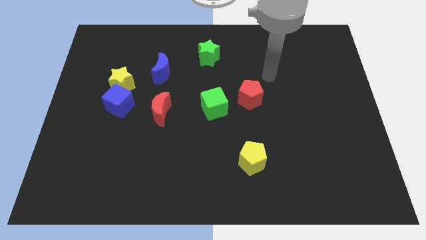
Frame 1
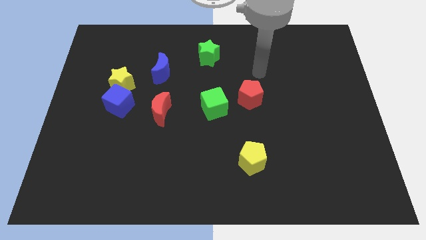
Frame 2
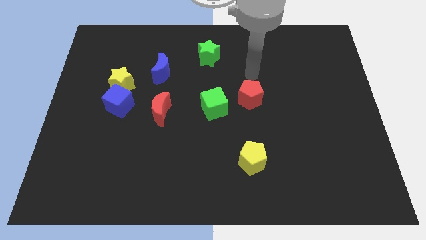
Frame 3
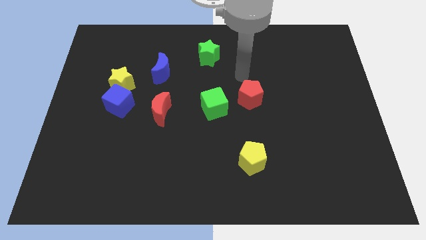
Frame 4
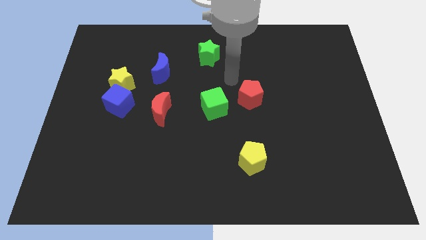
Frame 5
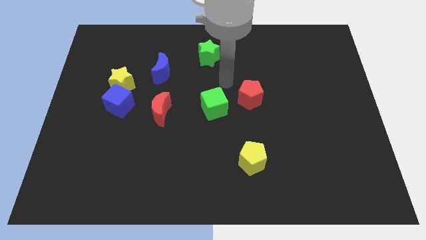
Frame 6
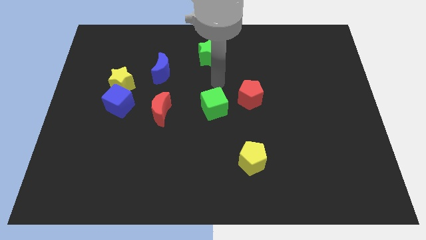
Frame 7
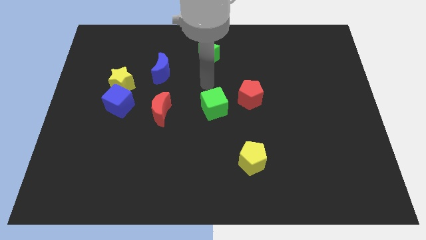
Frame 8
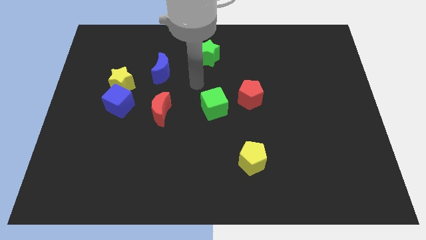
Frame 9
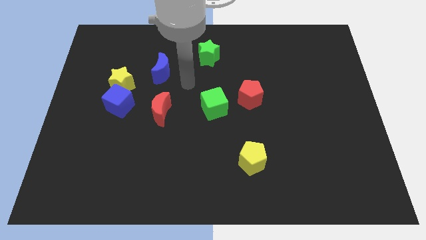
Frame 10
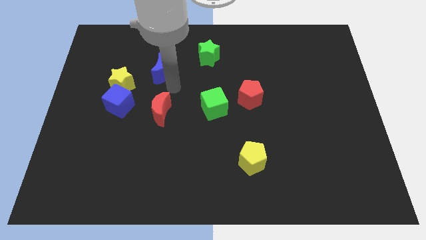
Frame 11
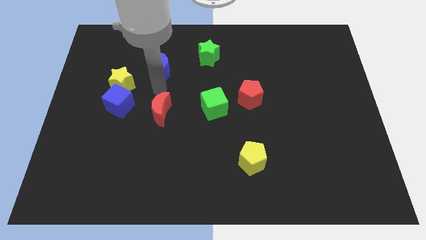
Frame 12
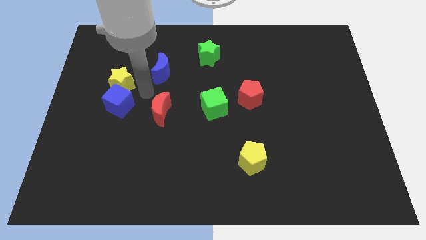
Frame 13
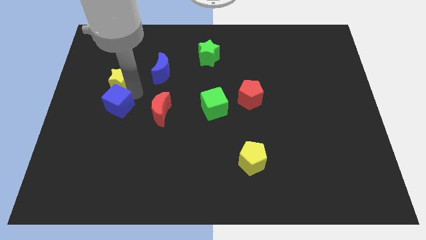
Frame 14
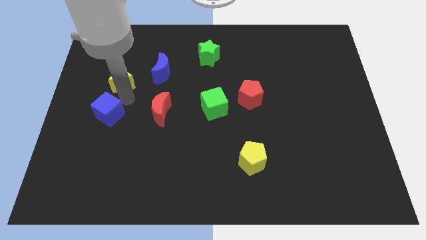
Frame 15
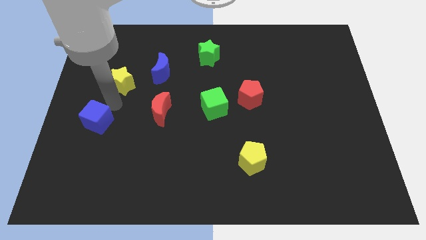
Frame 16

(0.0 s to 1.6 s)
move the yellow star away from the blue cube

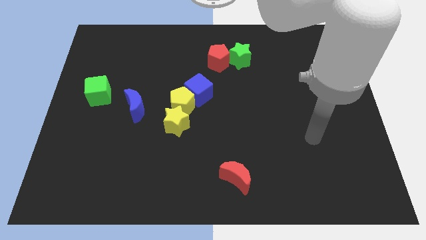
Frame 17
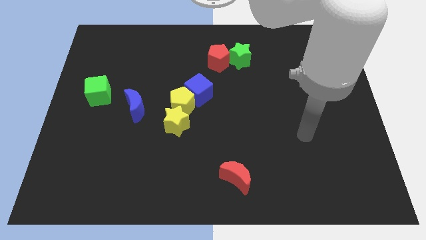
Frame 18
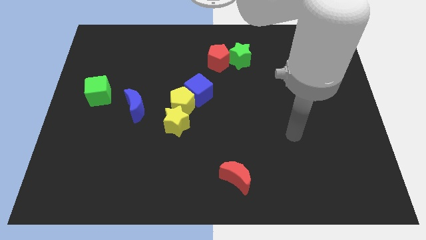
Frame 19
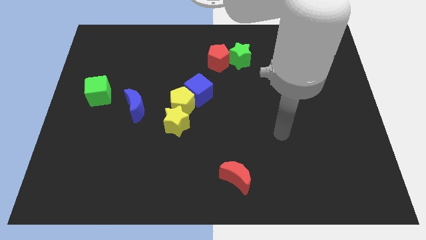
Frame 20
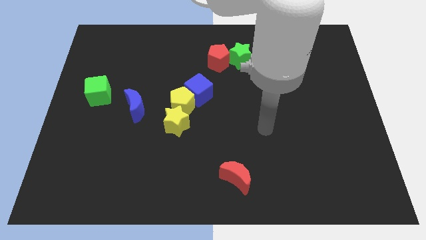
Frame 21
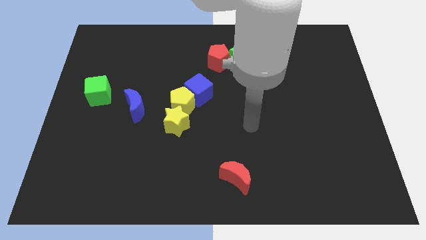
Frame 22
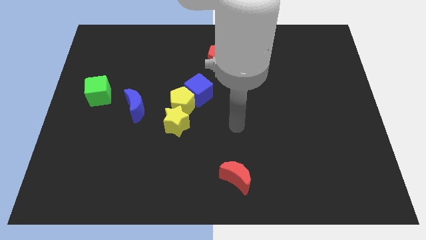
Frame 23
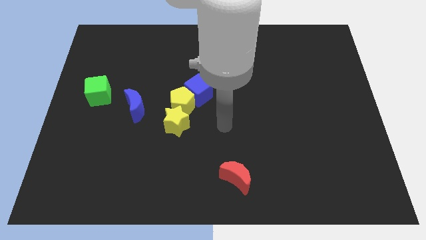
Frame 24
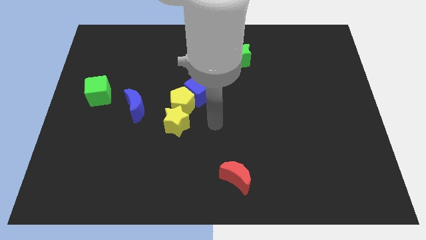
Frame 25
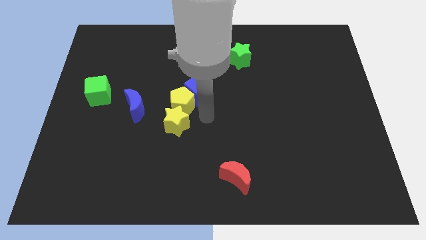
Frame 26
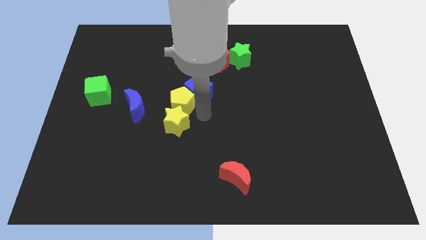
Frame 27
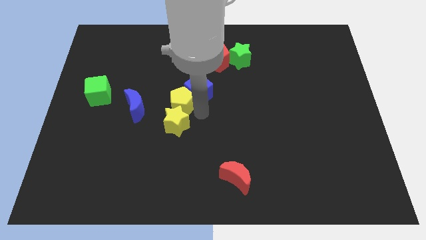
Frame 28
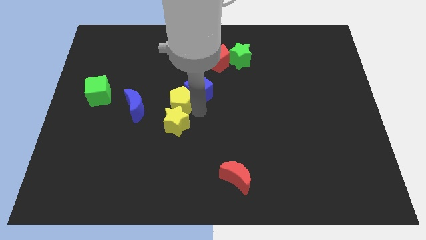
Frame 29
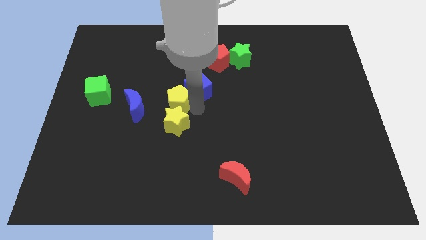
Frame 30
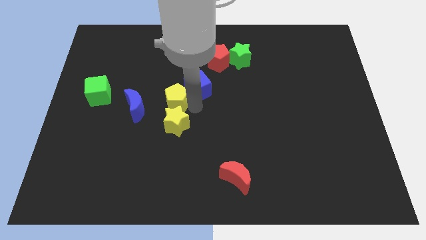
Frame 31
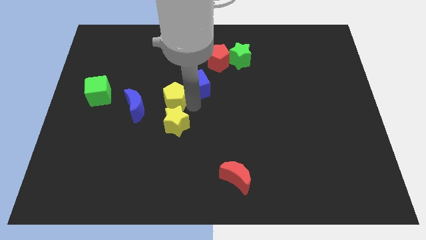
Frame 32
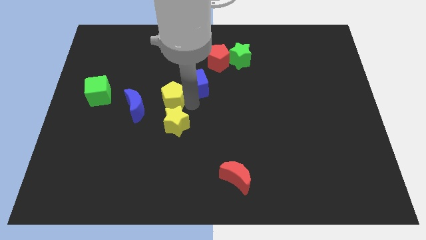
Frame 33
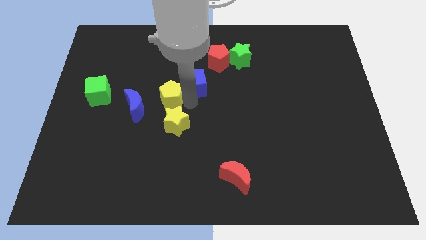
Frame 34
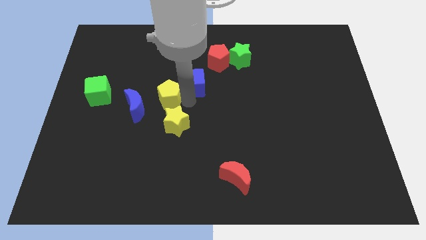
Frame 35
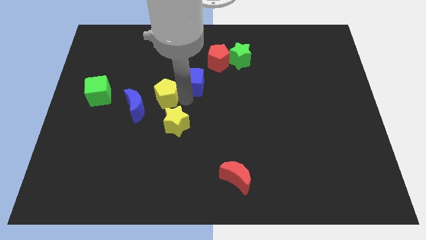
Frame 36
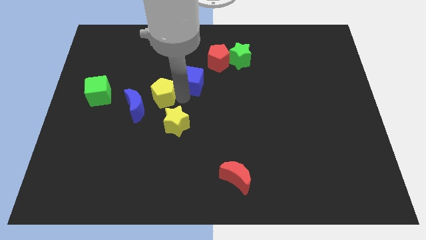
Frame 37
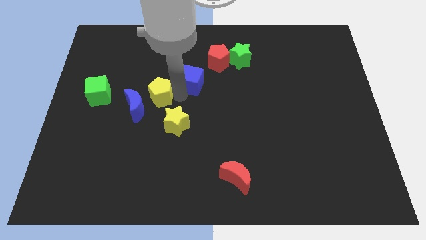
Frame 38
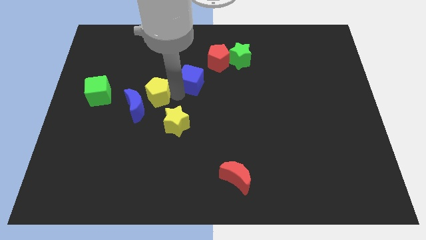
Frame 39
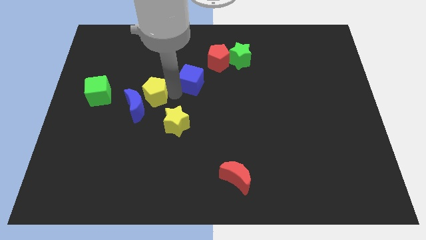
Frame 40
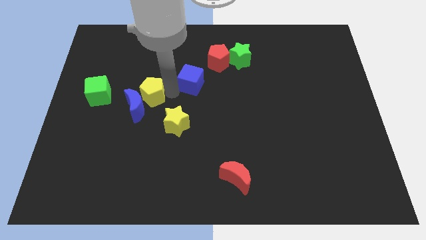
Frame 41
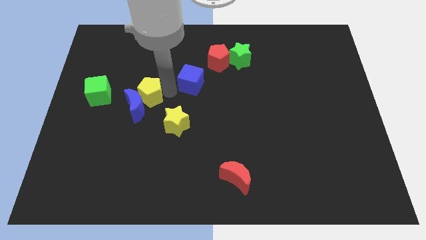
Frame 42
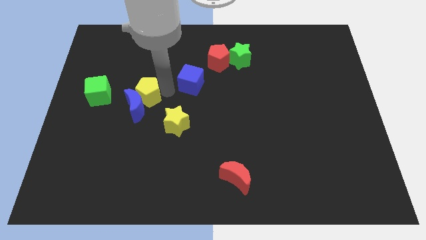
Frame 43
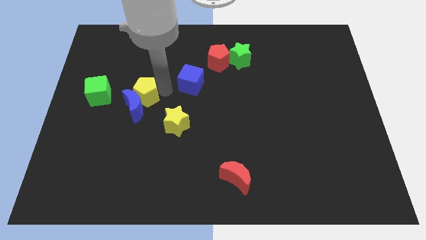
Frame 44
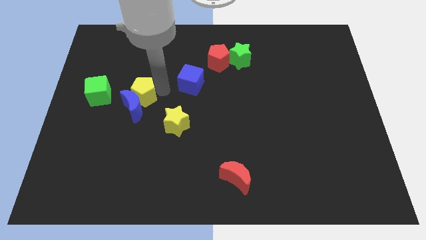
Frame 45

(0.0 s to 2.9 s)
pull the yellow pentagon apart from the blue cube and yellow star

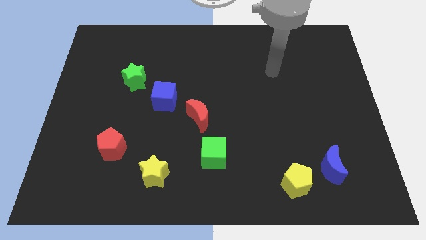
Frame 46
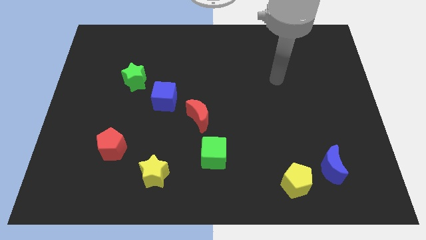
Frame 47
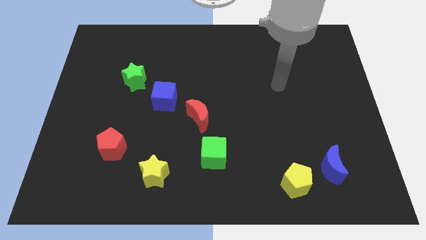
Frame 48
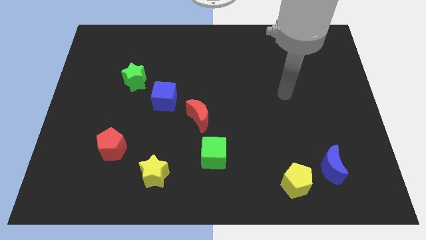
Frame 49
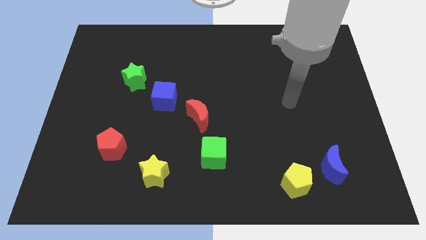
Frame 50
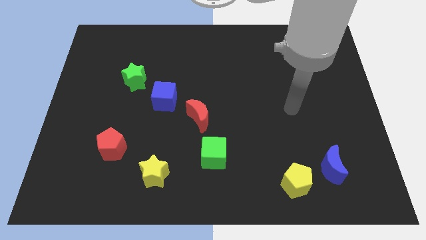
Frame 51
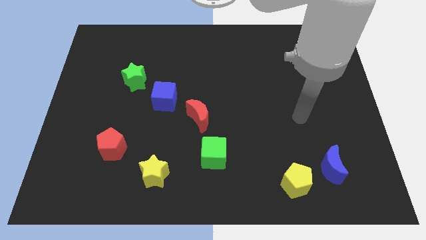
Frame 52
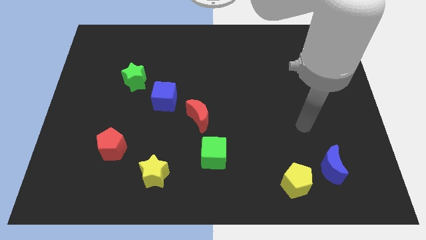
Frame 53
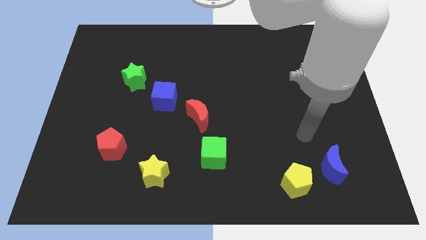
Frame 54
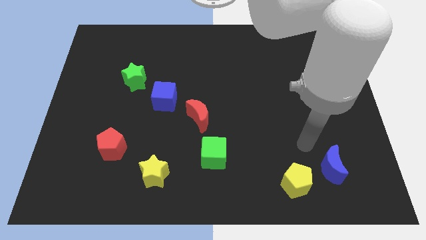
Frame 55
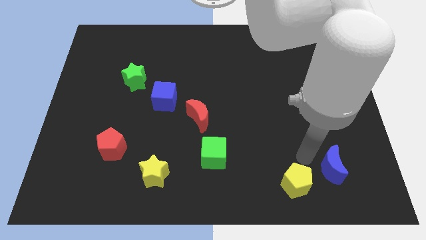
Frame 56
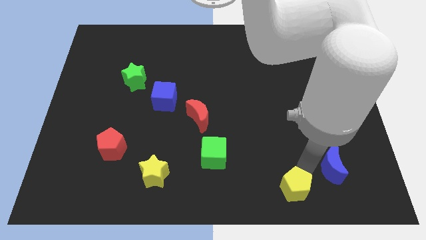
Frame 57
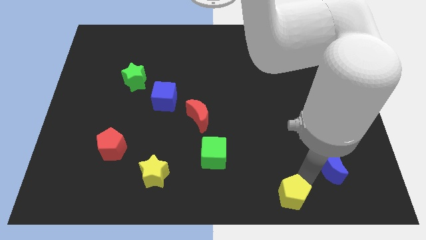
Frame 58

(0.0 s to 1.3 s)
separate the blue moon from the yellow pentagon

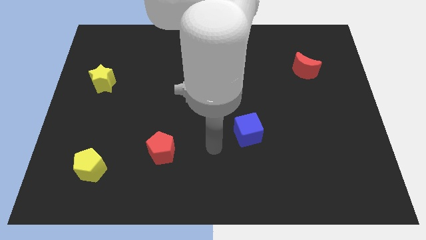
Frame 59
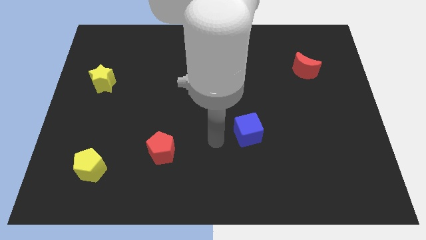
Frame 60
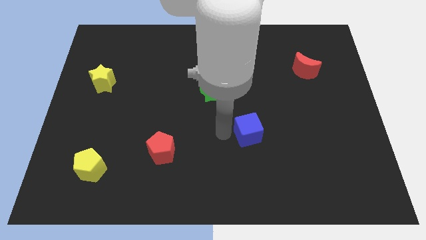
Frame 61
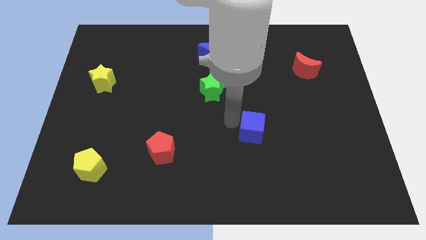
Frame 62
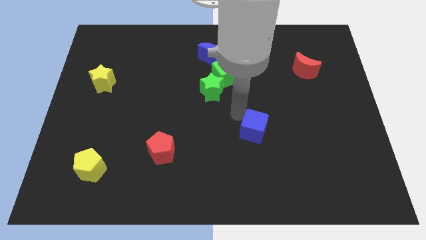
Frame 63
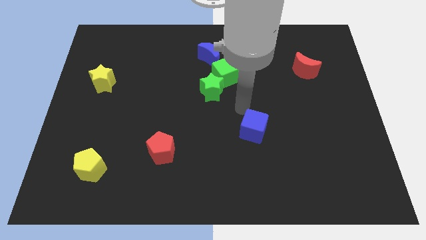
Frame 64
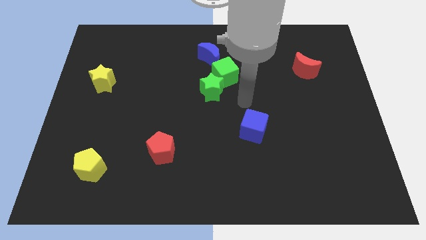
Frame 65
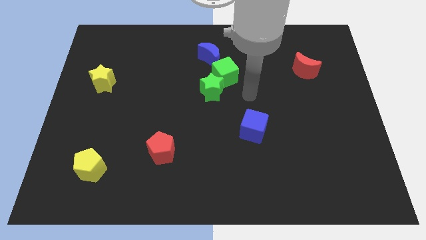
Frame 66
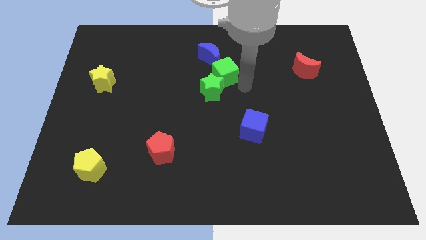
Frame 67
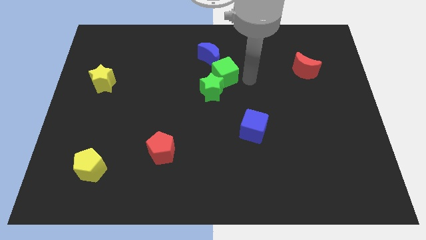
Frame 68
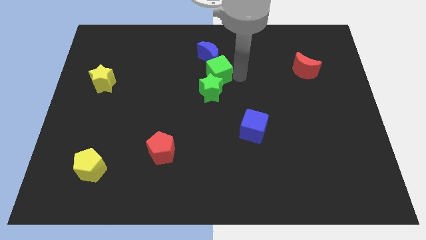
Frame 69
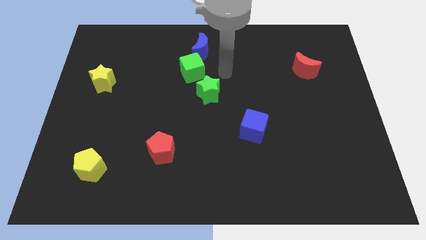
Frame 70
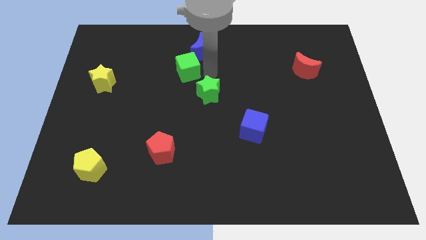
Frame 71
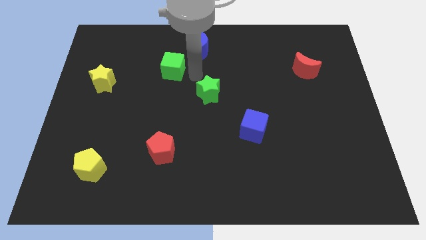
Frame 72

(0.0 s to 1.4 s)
pull the green star apart from the green cube

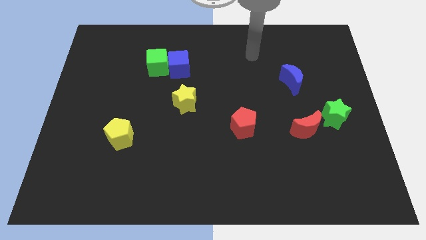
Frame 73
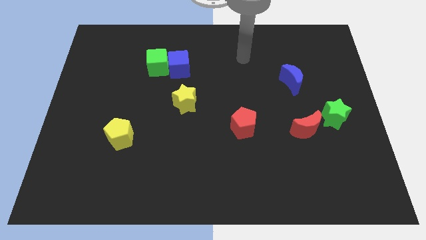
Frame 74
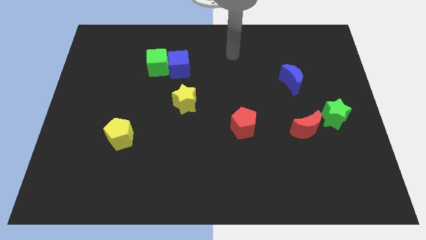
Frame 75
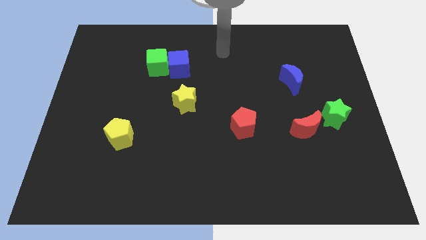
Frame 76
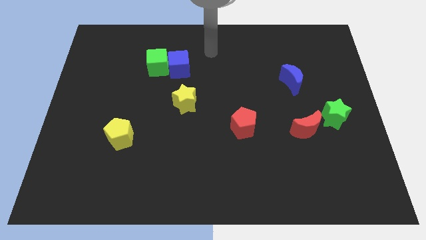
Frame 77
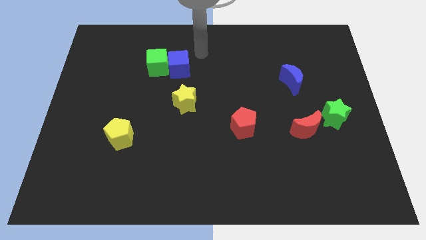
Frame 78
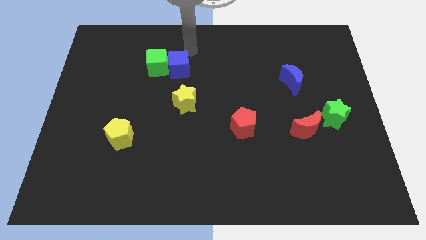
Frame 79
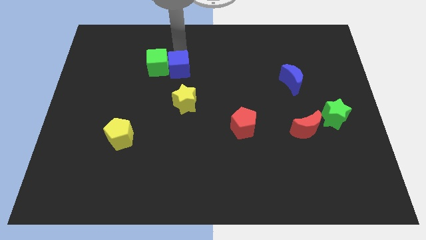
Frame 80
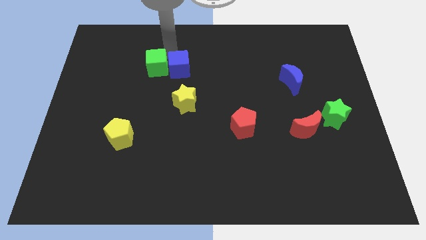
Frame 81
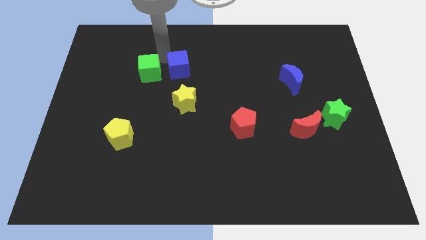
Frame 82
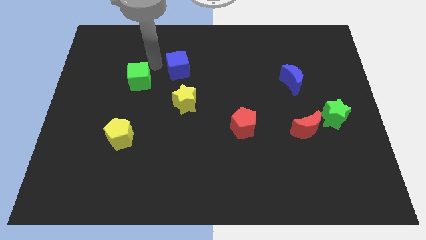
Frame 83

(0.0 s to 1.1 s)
move the blue cube away from the green cube

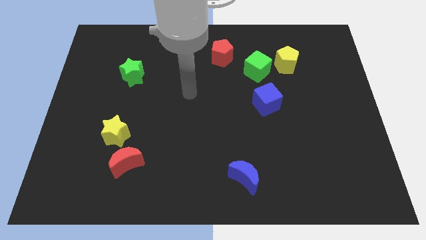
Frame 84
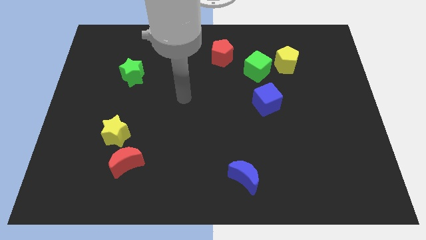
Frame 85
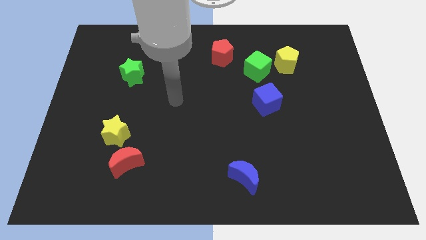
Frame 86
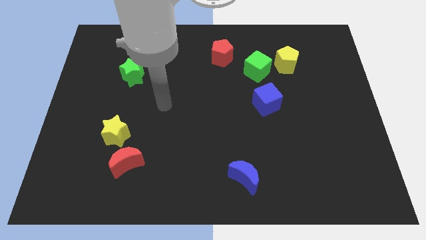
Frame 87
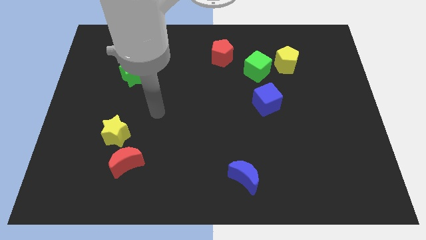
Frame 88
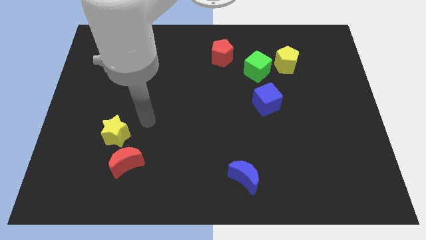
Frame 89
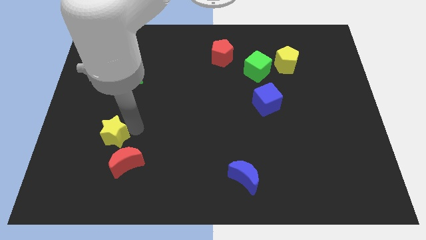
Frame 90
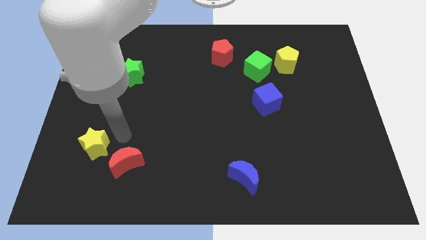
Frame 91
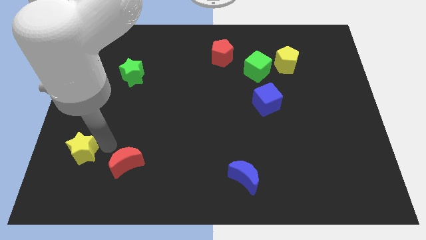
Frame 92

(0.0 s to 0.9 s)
move the red moon away from the yellow star
